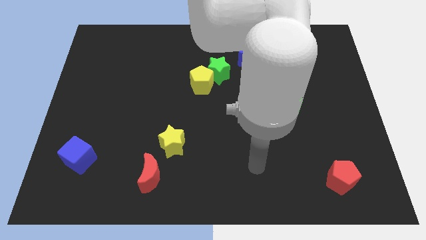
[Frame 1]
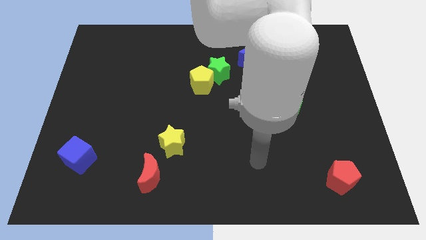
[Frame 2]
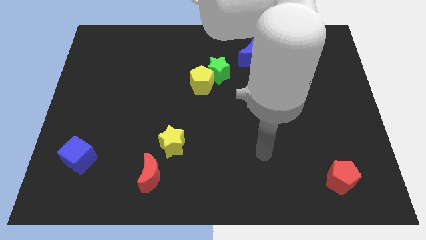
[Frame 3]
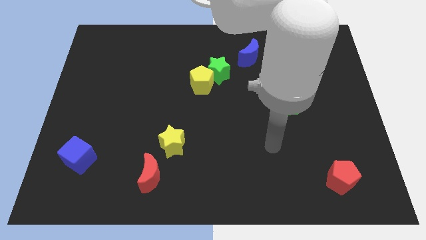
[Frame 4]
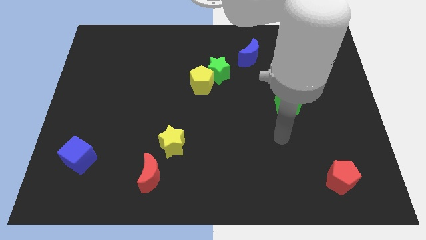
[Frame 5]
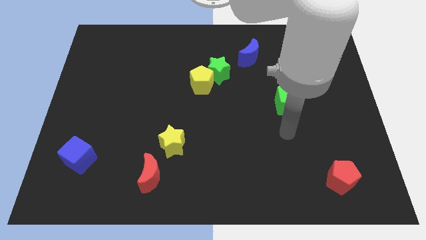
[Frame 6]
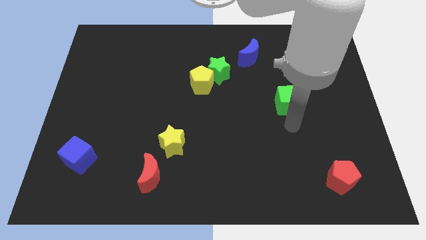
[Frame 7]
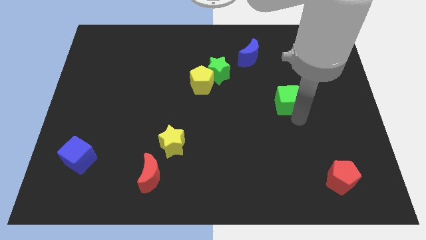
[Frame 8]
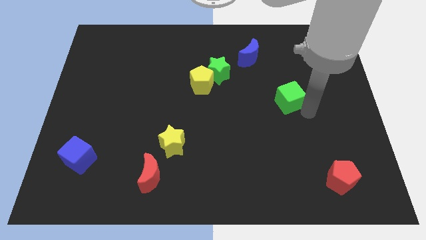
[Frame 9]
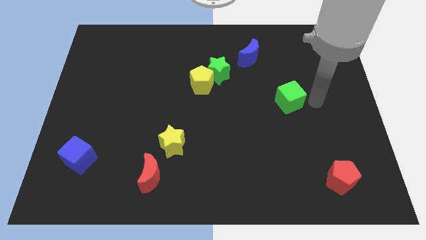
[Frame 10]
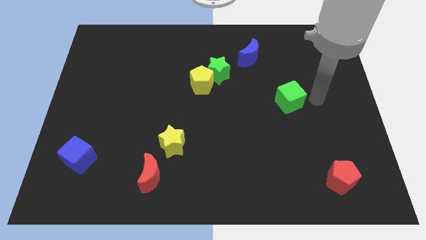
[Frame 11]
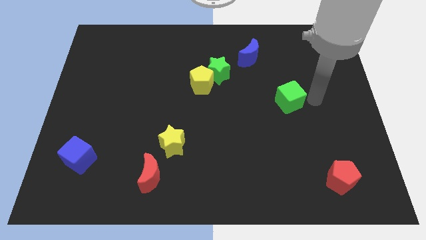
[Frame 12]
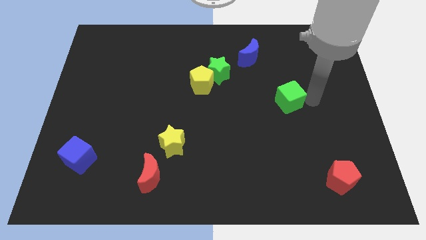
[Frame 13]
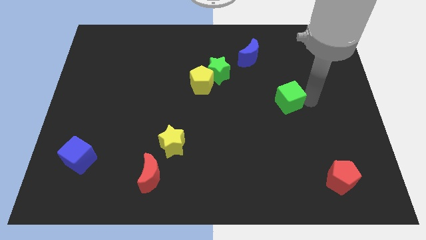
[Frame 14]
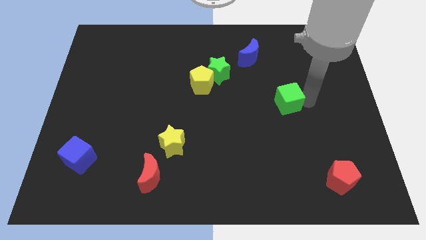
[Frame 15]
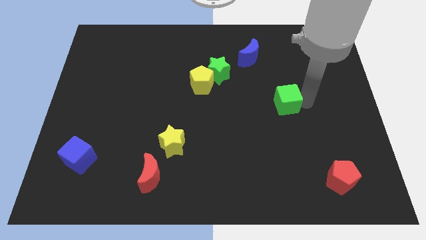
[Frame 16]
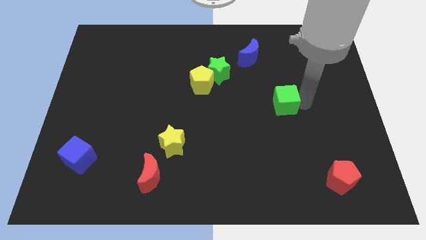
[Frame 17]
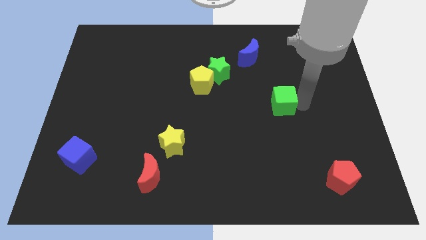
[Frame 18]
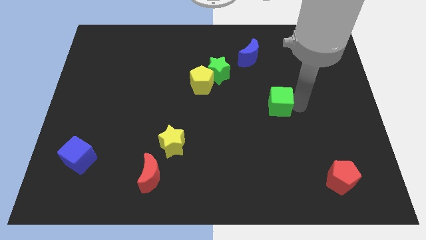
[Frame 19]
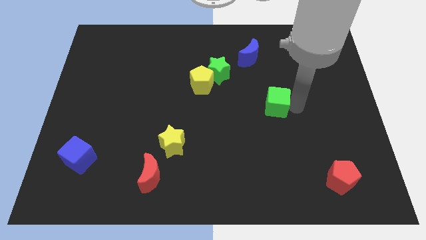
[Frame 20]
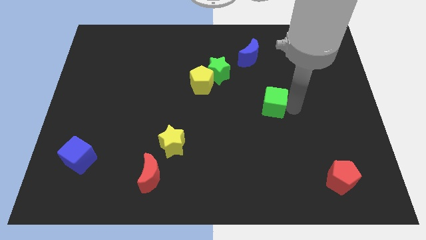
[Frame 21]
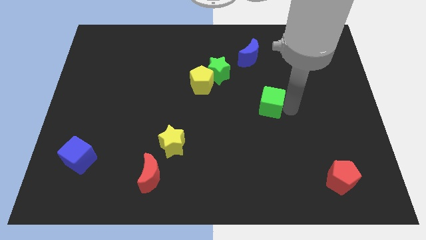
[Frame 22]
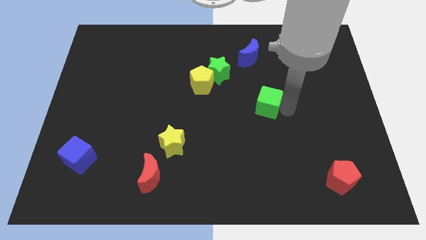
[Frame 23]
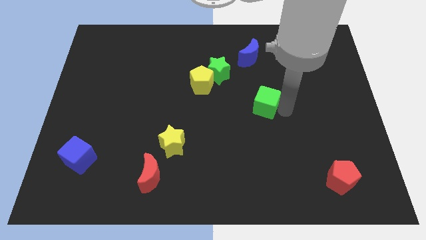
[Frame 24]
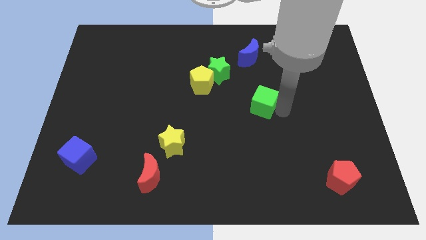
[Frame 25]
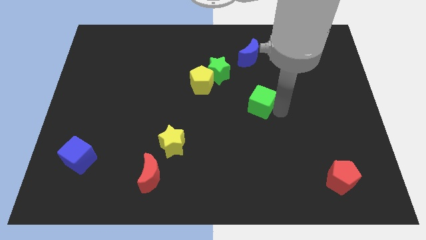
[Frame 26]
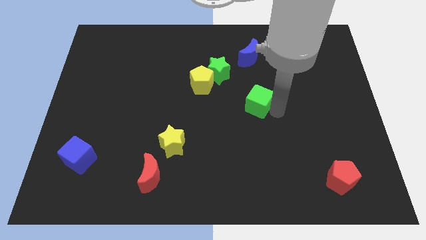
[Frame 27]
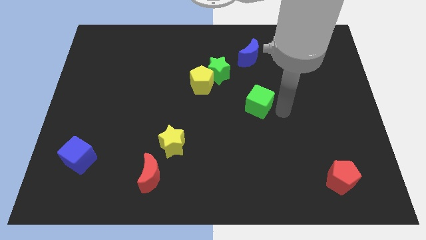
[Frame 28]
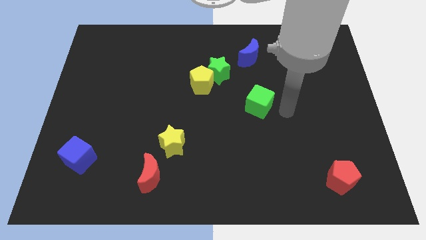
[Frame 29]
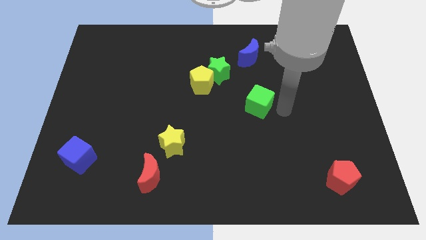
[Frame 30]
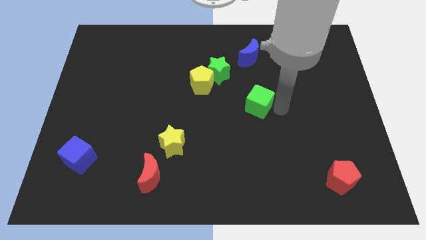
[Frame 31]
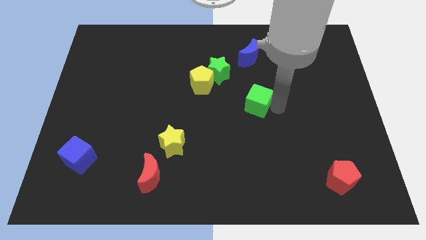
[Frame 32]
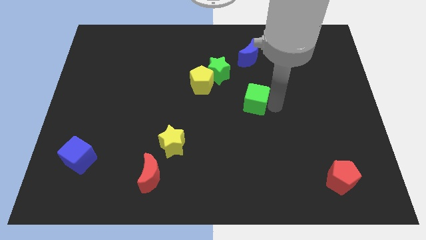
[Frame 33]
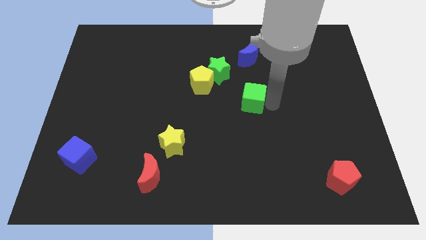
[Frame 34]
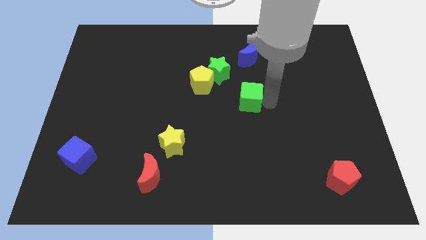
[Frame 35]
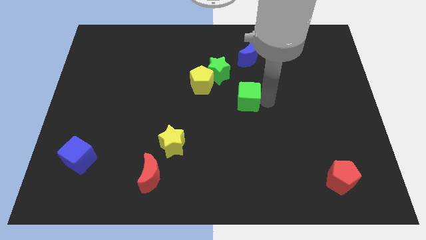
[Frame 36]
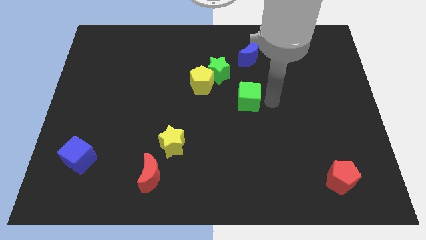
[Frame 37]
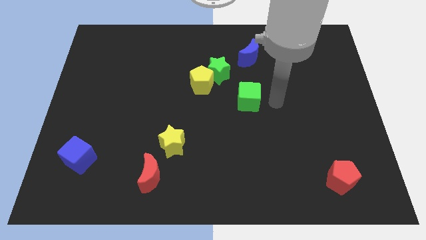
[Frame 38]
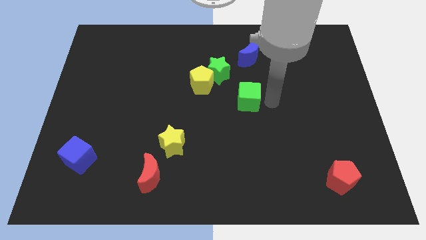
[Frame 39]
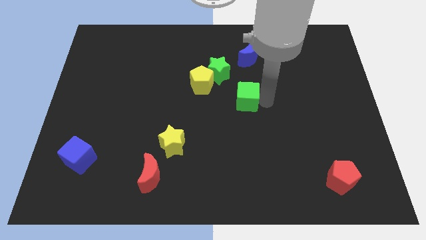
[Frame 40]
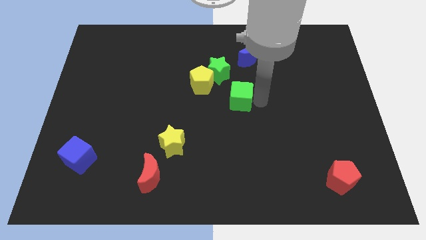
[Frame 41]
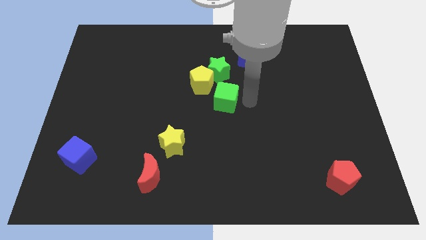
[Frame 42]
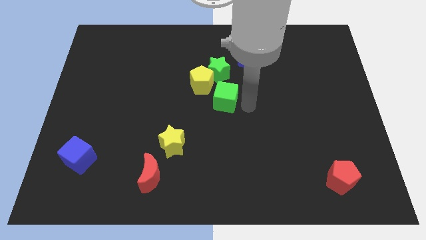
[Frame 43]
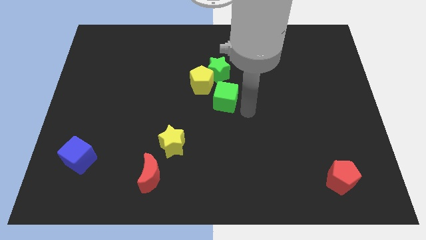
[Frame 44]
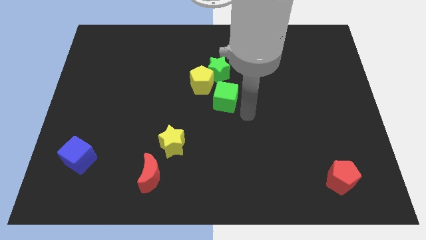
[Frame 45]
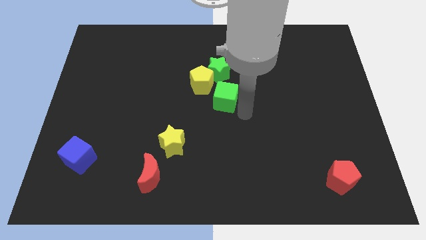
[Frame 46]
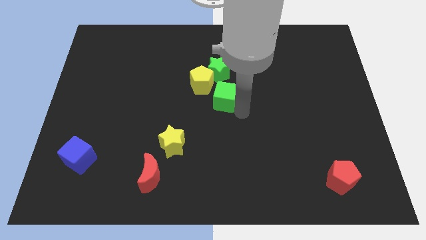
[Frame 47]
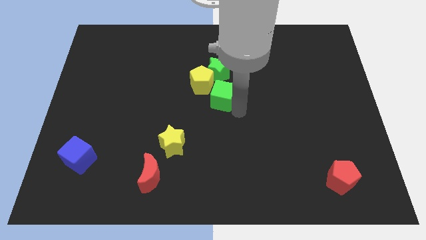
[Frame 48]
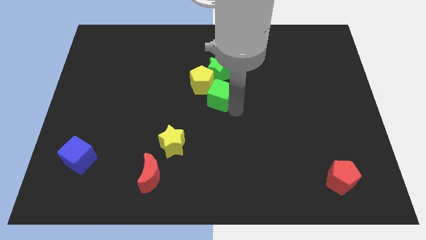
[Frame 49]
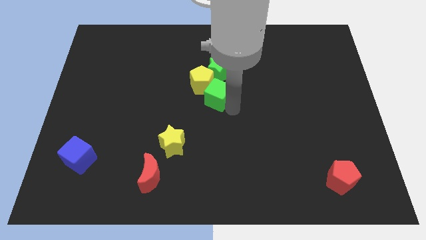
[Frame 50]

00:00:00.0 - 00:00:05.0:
put the green cube towards the yellow pentagon

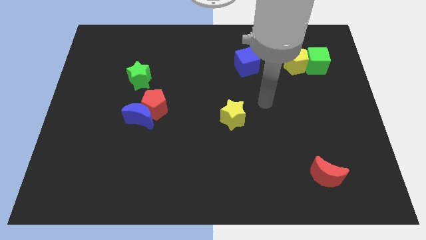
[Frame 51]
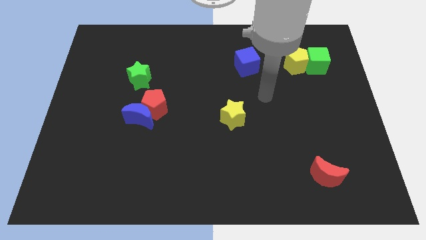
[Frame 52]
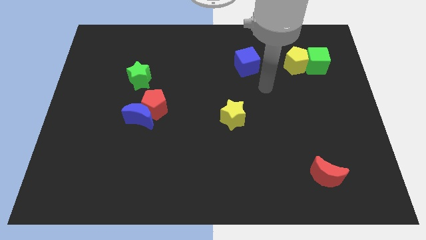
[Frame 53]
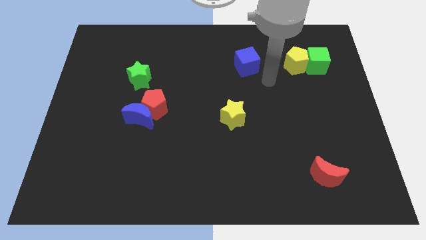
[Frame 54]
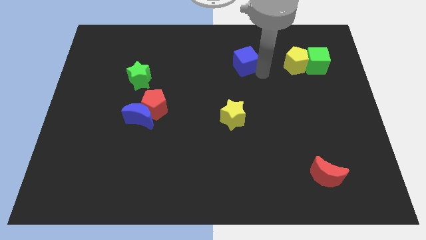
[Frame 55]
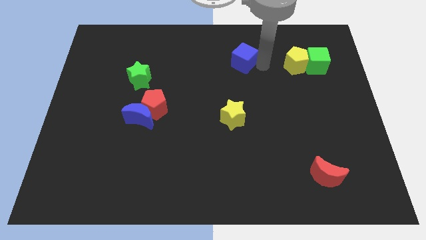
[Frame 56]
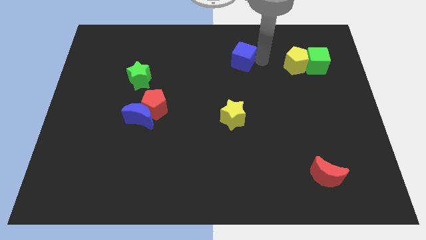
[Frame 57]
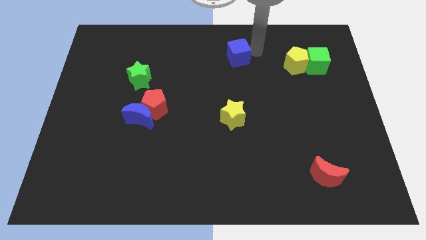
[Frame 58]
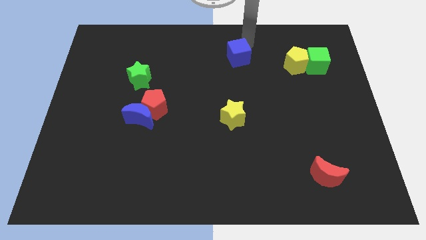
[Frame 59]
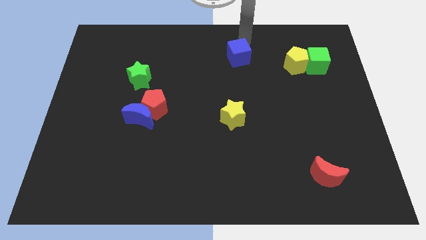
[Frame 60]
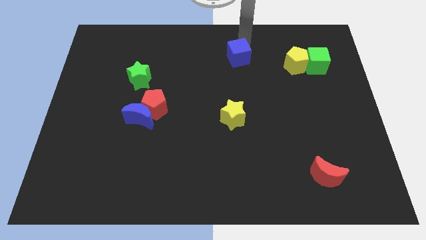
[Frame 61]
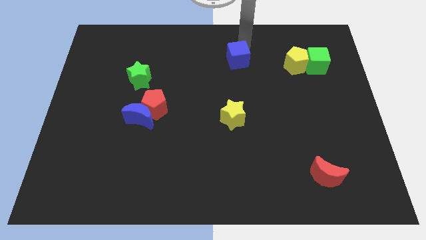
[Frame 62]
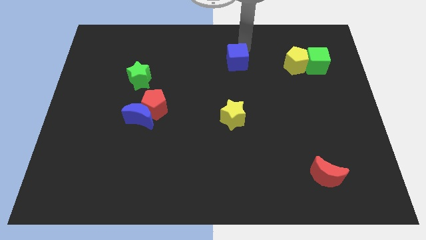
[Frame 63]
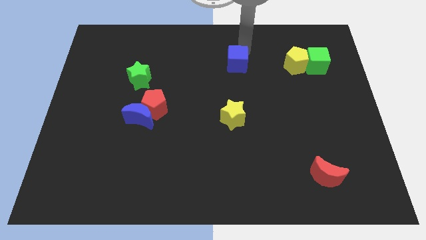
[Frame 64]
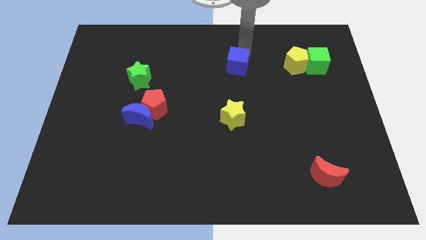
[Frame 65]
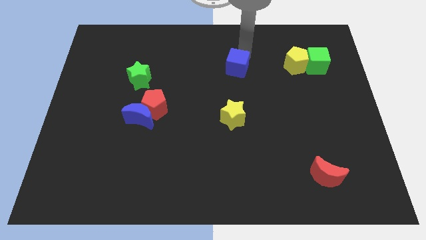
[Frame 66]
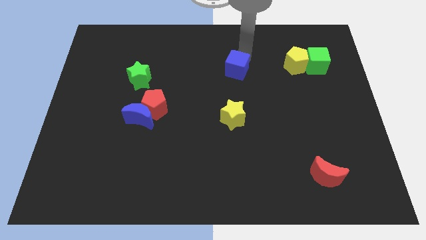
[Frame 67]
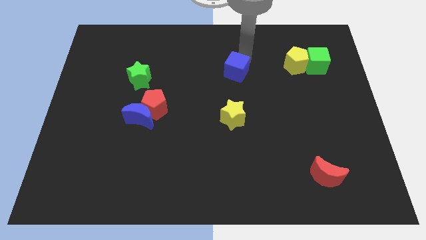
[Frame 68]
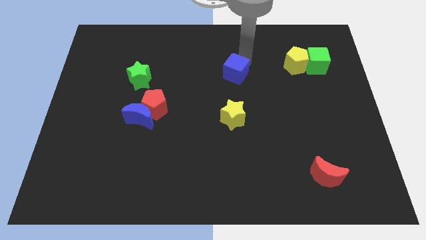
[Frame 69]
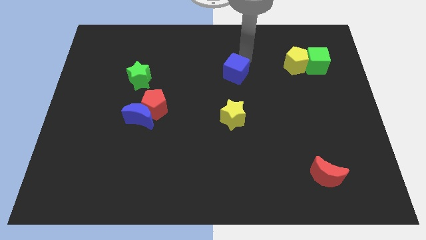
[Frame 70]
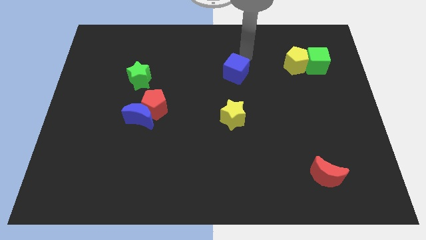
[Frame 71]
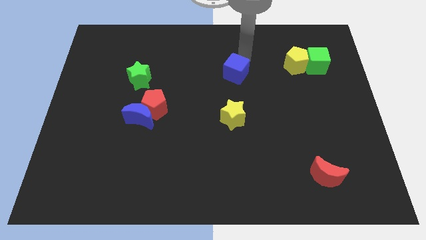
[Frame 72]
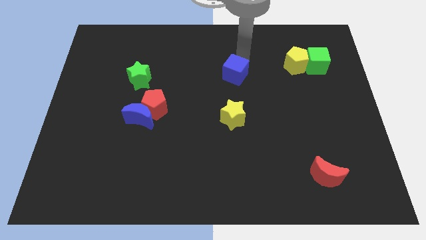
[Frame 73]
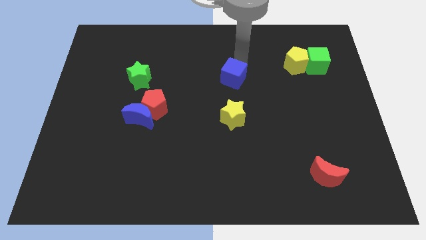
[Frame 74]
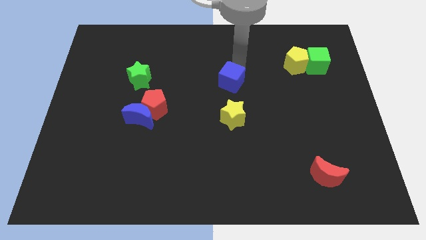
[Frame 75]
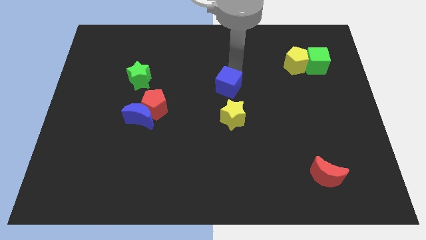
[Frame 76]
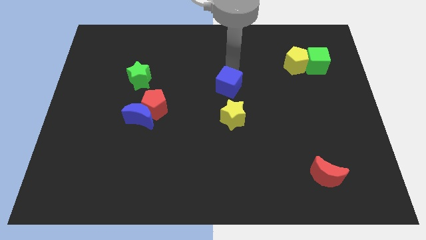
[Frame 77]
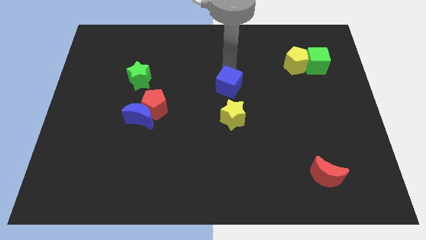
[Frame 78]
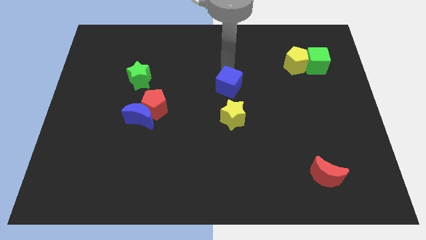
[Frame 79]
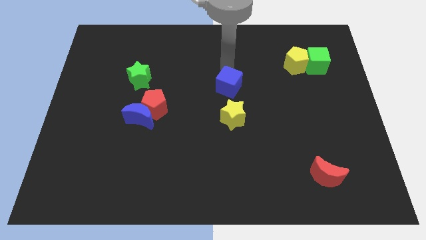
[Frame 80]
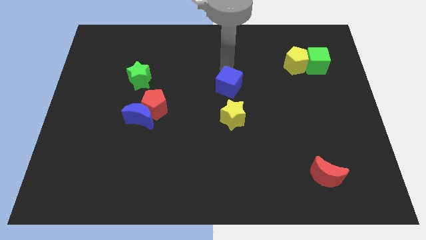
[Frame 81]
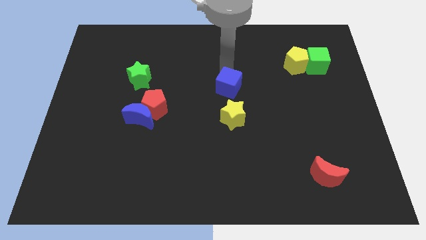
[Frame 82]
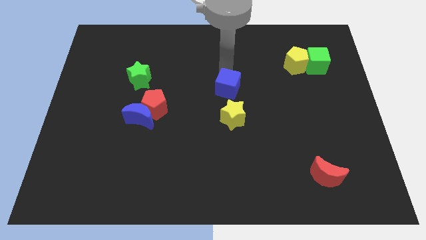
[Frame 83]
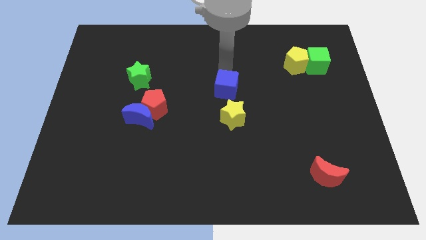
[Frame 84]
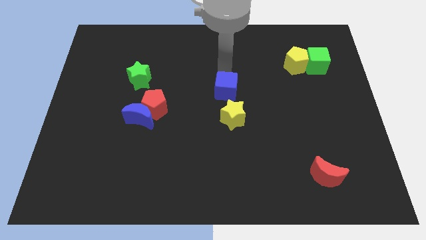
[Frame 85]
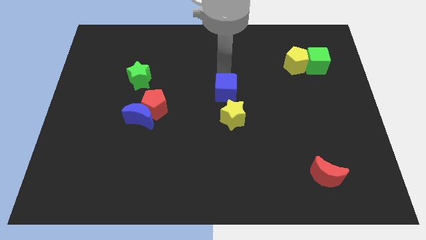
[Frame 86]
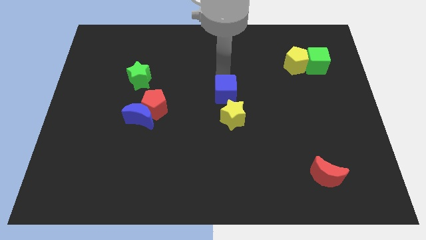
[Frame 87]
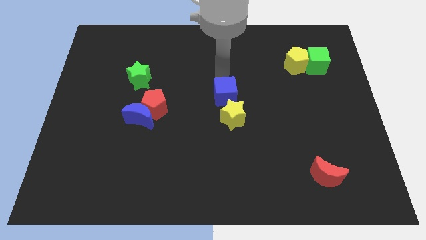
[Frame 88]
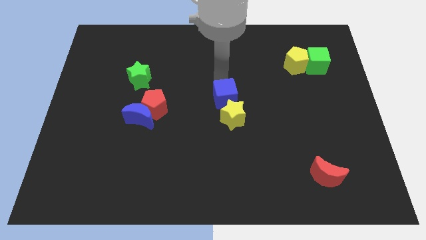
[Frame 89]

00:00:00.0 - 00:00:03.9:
slide the blue cube next to the yellow star
